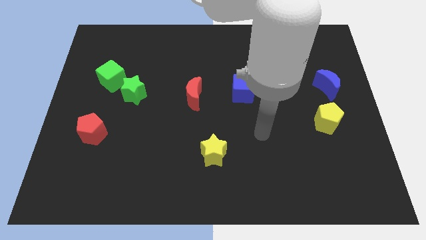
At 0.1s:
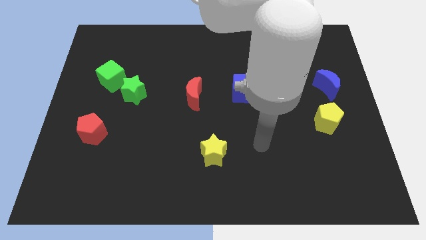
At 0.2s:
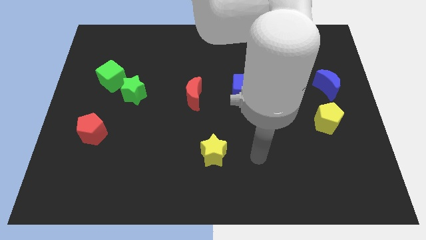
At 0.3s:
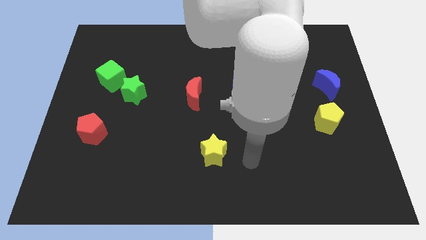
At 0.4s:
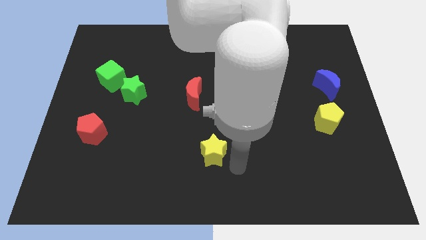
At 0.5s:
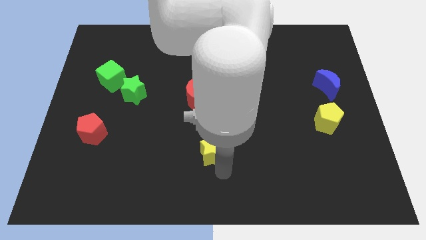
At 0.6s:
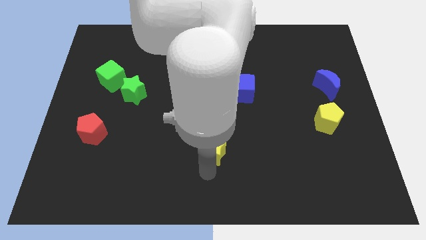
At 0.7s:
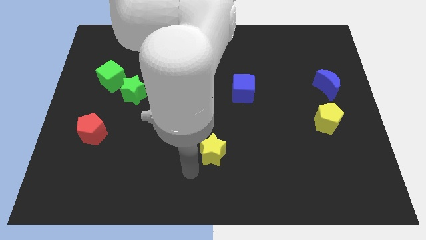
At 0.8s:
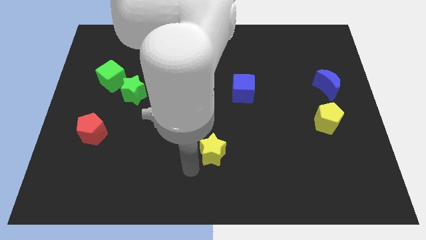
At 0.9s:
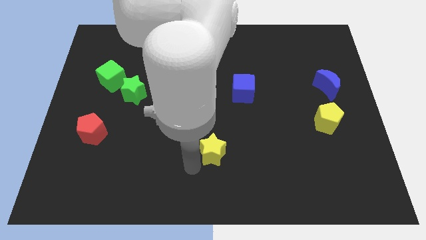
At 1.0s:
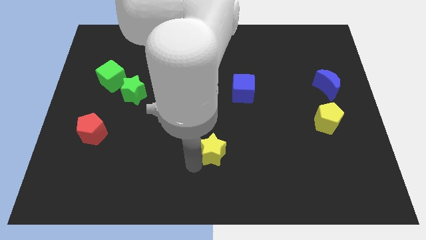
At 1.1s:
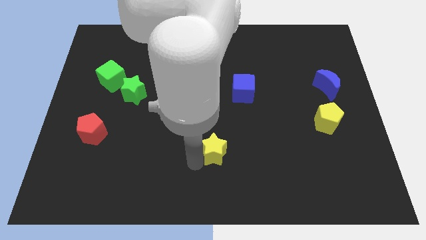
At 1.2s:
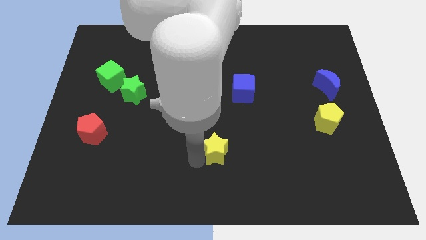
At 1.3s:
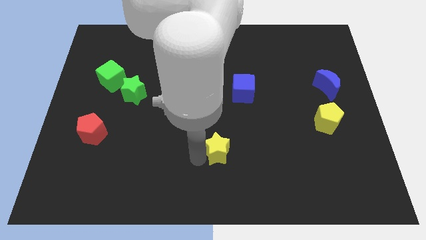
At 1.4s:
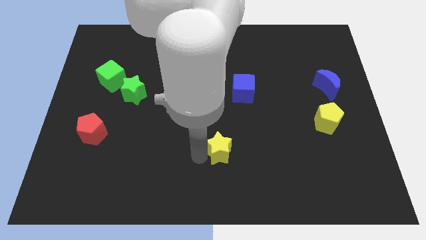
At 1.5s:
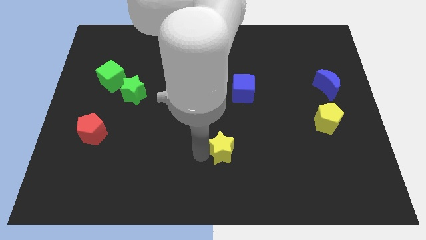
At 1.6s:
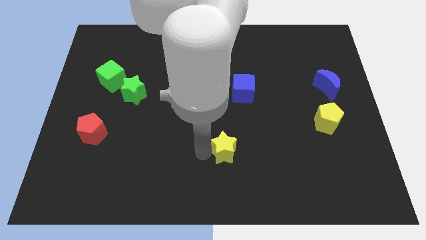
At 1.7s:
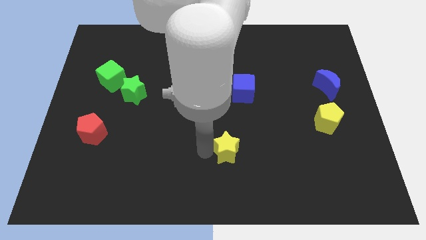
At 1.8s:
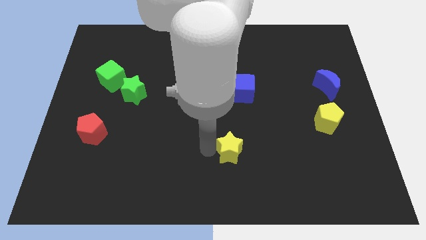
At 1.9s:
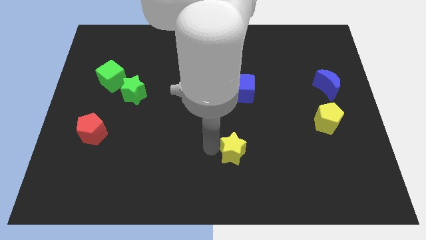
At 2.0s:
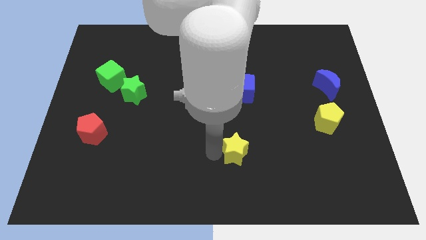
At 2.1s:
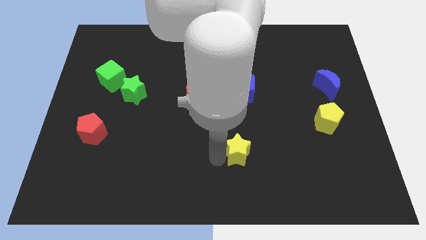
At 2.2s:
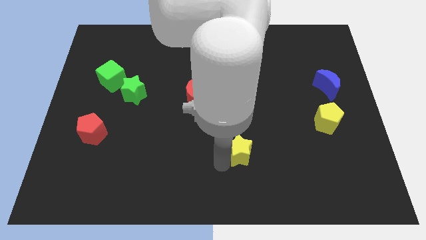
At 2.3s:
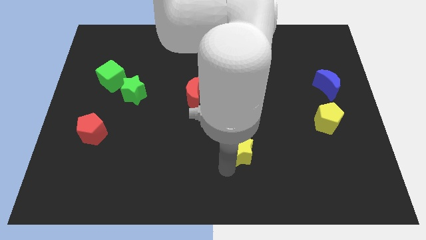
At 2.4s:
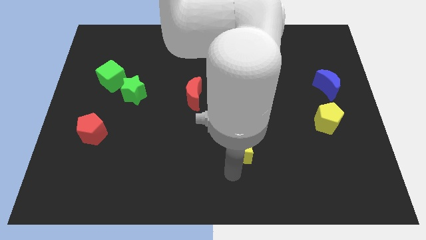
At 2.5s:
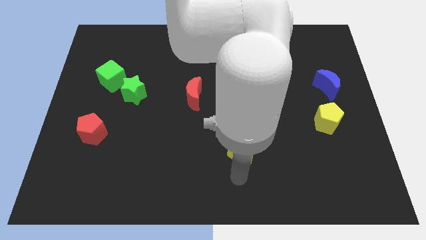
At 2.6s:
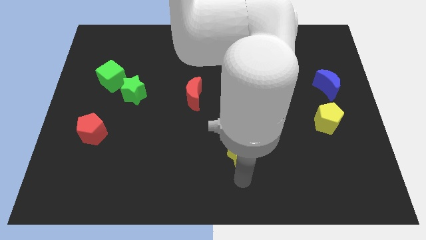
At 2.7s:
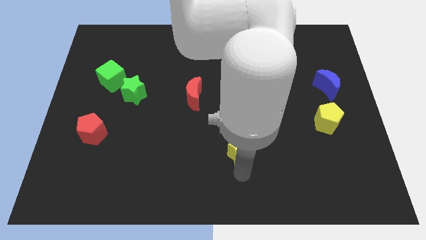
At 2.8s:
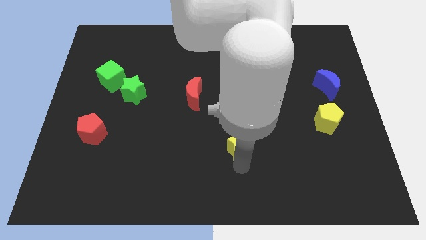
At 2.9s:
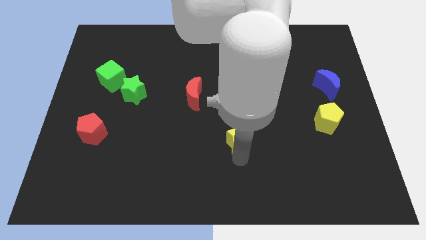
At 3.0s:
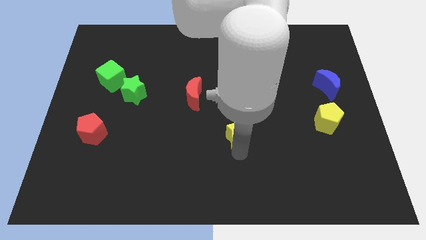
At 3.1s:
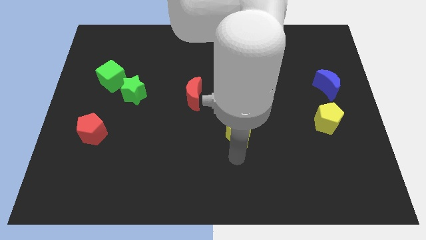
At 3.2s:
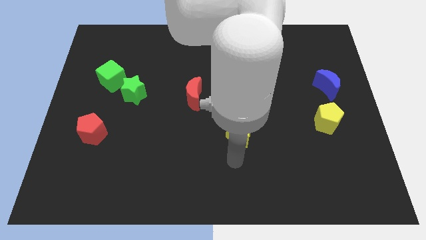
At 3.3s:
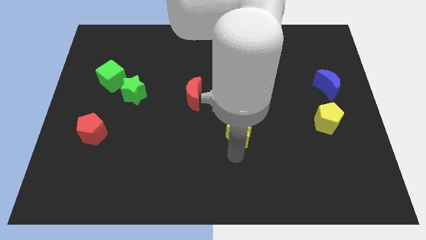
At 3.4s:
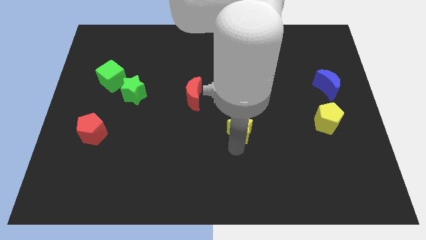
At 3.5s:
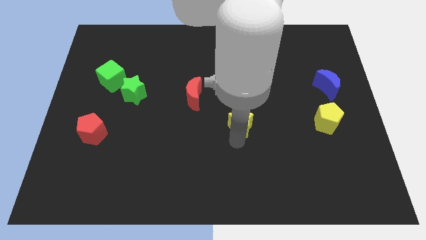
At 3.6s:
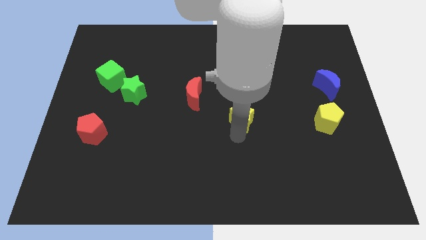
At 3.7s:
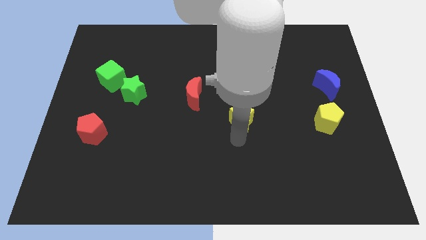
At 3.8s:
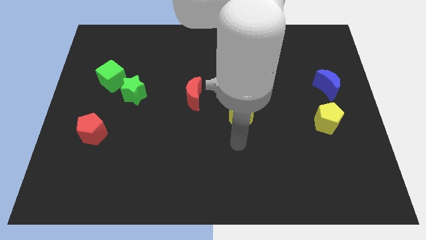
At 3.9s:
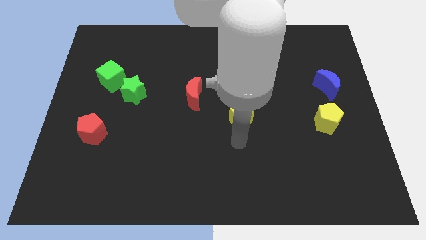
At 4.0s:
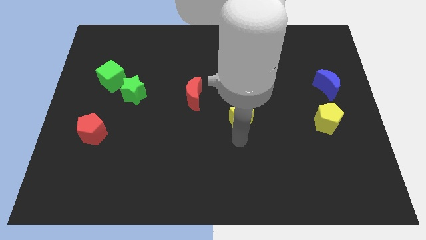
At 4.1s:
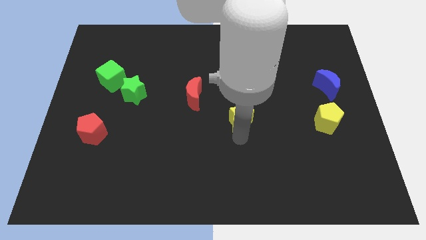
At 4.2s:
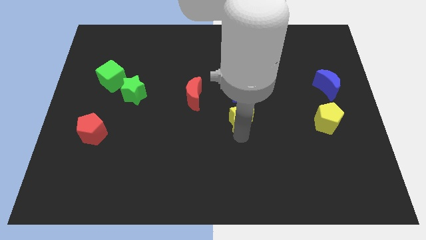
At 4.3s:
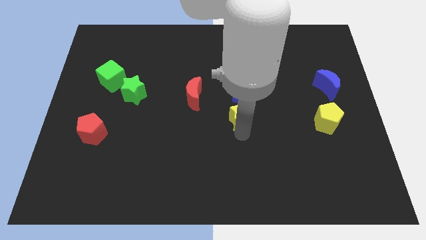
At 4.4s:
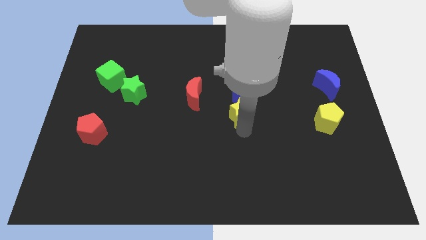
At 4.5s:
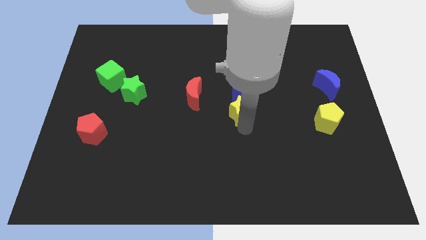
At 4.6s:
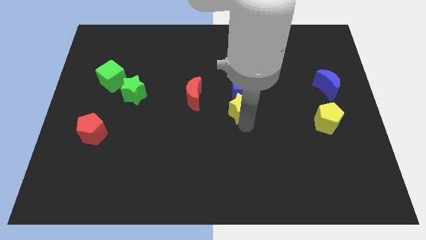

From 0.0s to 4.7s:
slide the yellow star close to the blue cube

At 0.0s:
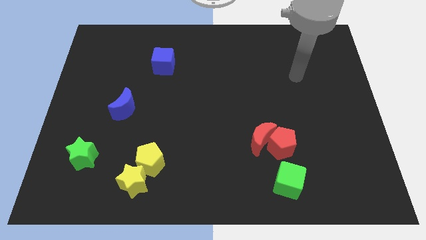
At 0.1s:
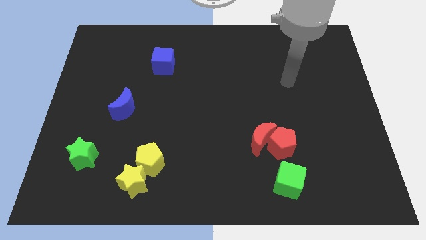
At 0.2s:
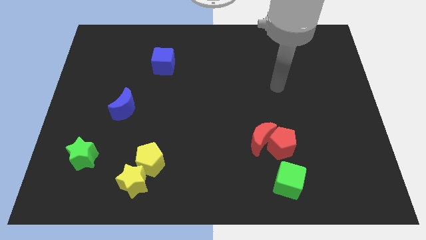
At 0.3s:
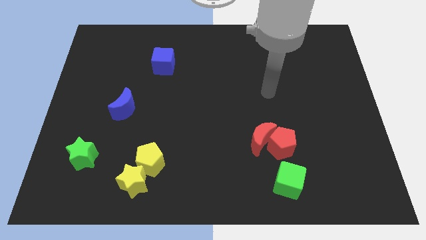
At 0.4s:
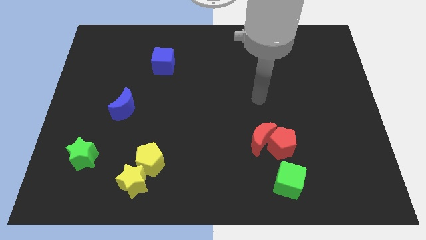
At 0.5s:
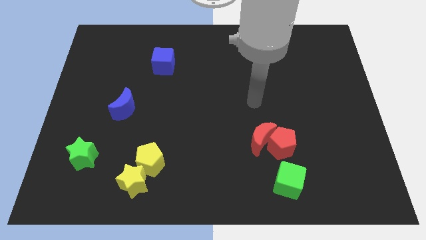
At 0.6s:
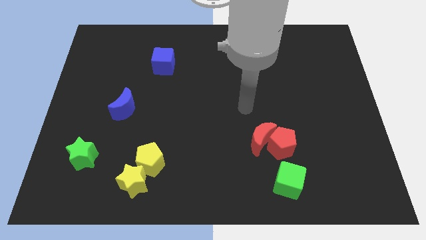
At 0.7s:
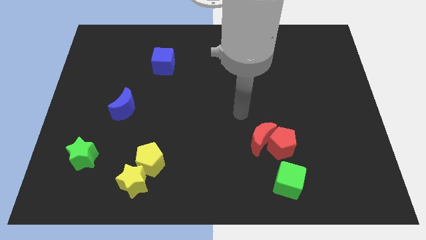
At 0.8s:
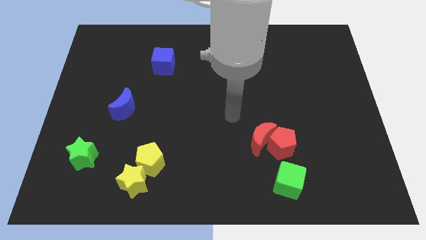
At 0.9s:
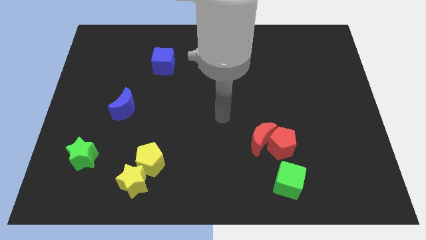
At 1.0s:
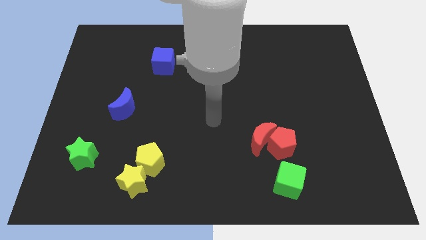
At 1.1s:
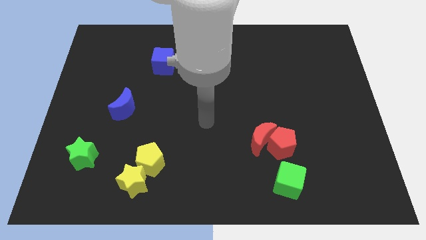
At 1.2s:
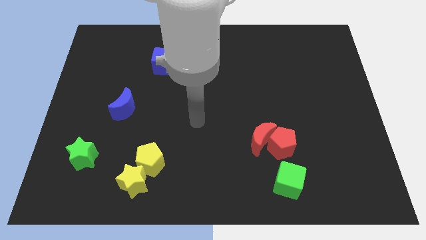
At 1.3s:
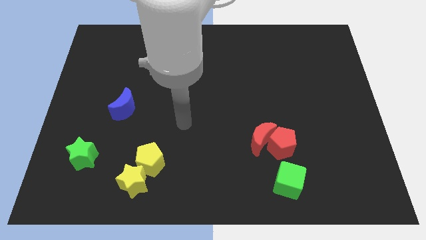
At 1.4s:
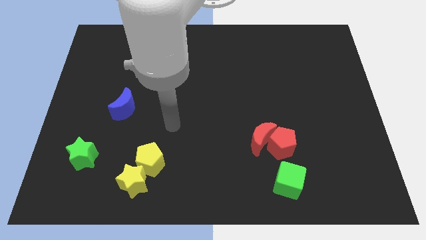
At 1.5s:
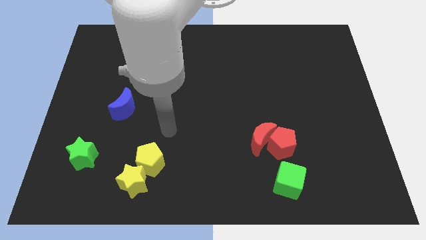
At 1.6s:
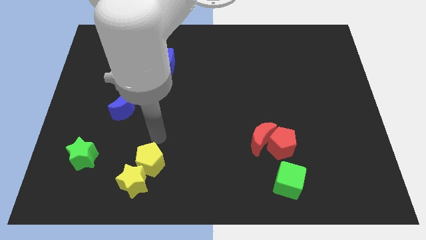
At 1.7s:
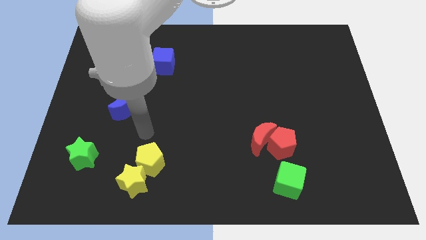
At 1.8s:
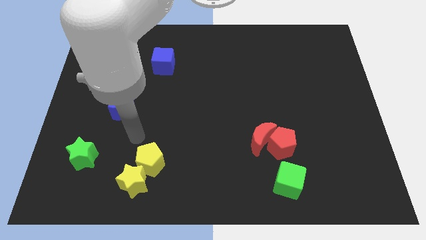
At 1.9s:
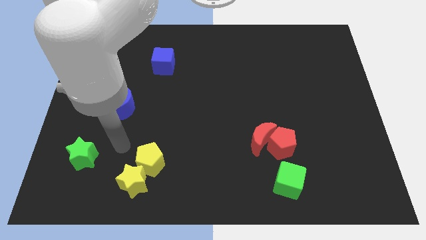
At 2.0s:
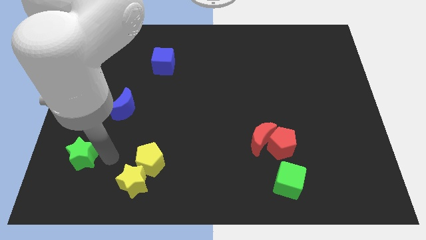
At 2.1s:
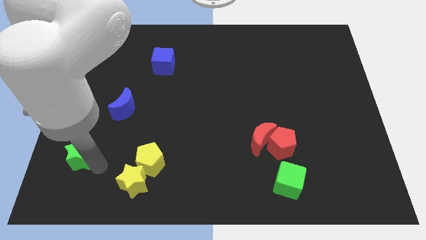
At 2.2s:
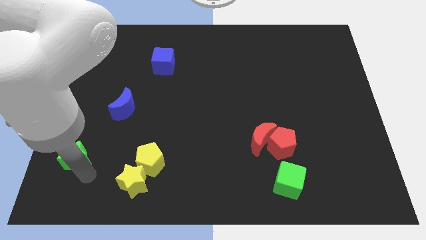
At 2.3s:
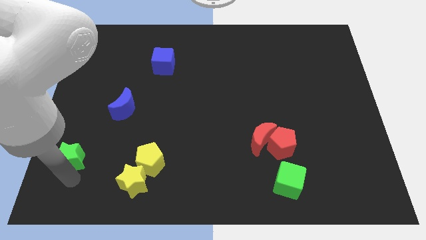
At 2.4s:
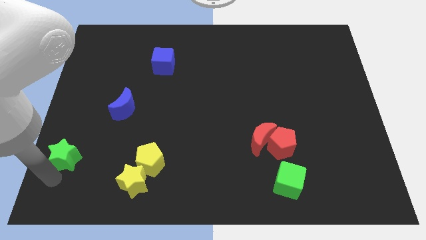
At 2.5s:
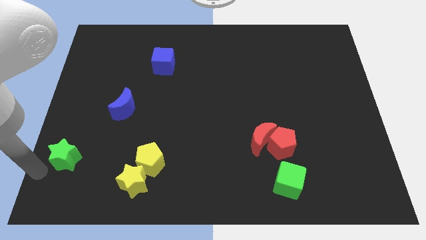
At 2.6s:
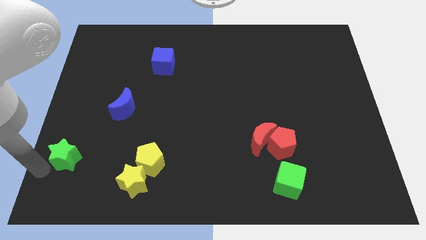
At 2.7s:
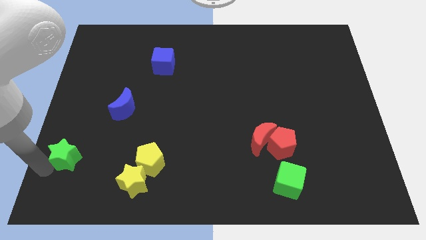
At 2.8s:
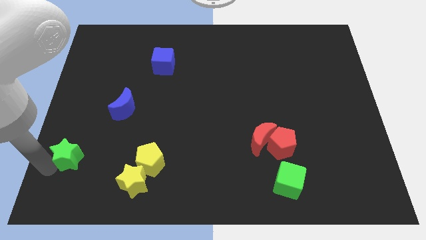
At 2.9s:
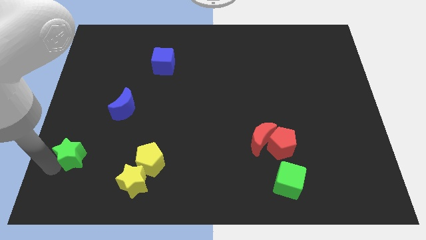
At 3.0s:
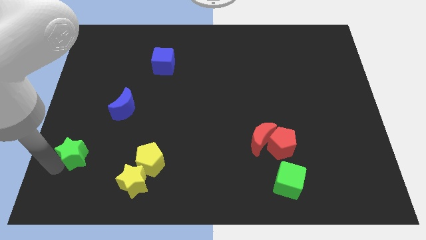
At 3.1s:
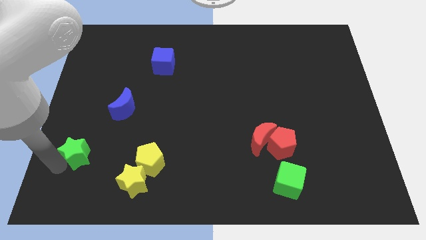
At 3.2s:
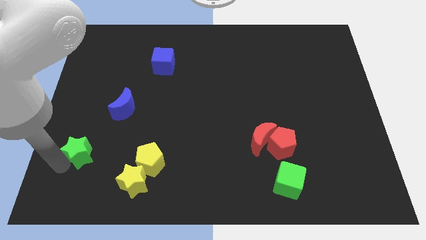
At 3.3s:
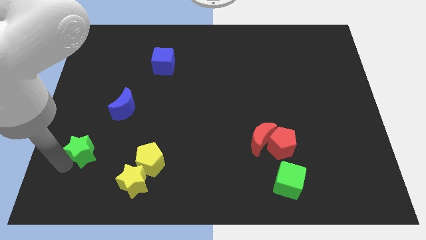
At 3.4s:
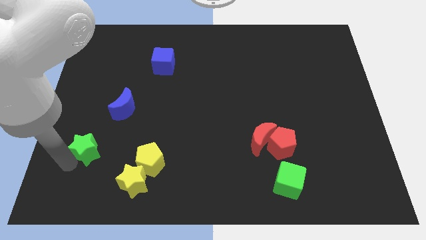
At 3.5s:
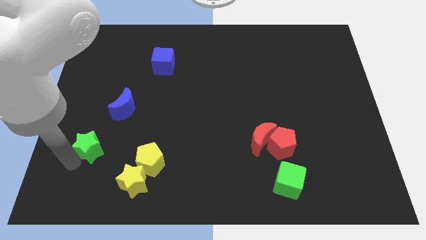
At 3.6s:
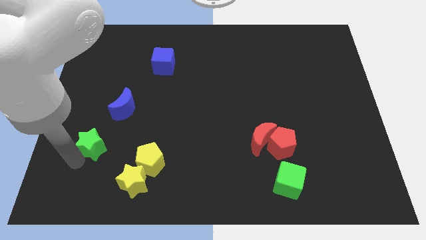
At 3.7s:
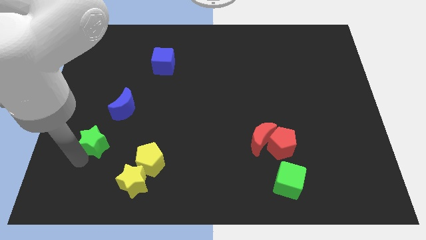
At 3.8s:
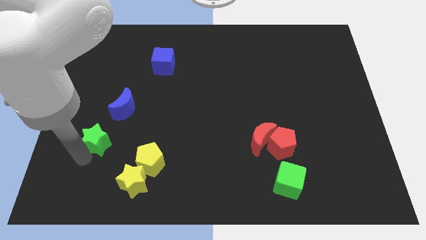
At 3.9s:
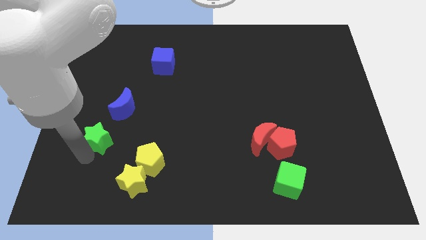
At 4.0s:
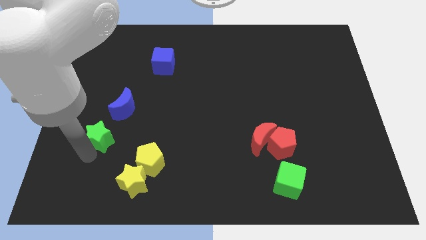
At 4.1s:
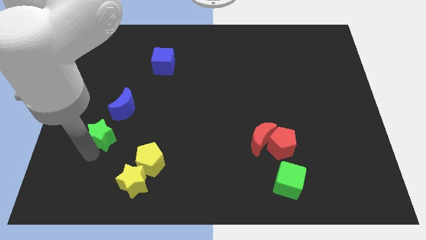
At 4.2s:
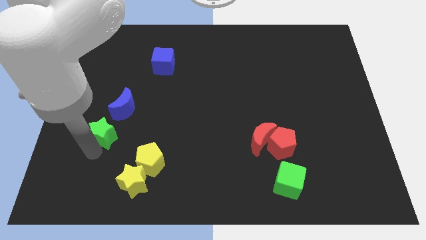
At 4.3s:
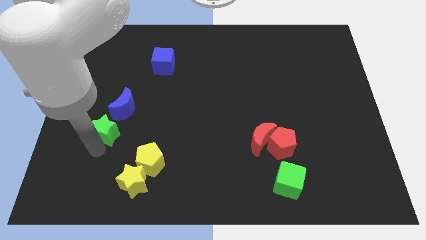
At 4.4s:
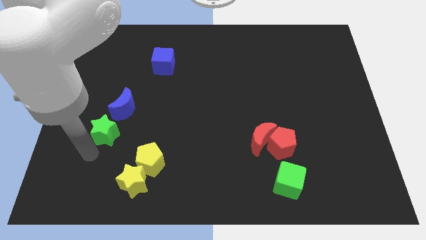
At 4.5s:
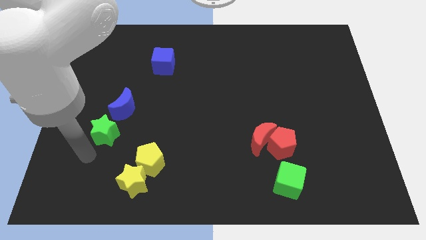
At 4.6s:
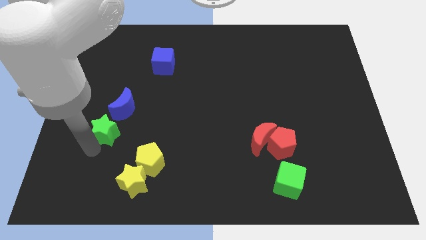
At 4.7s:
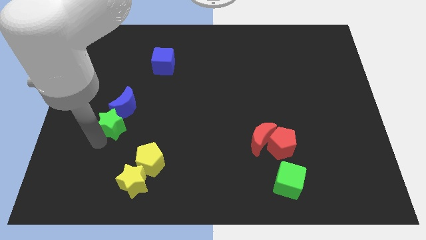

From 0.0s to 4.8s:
push the green star to the blue moon
